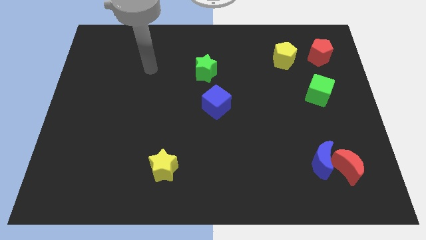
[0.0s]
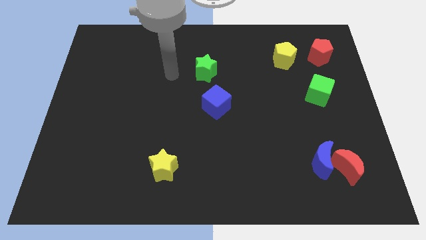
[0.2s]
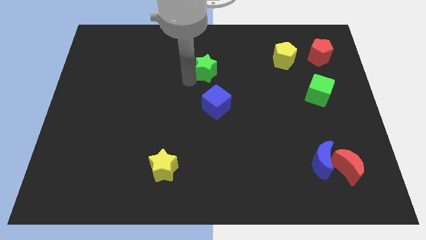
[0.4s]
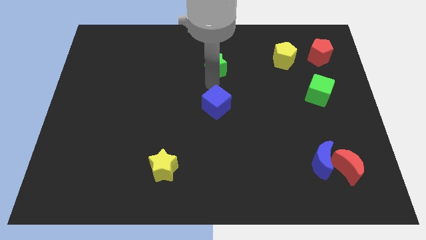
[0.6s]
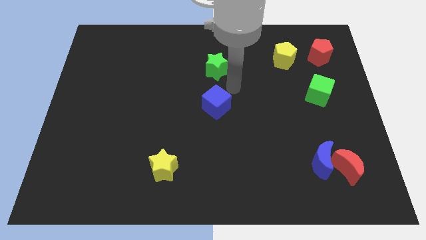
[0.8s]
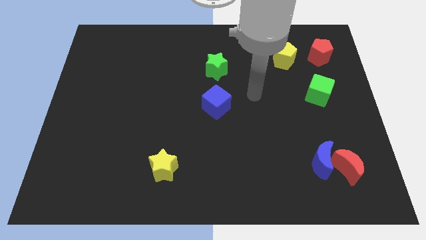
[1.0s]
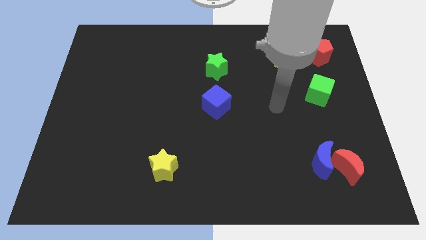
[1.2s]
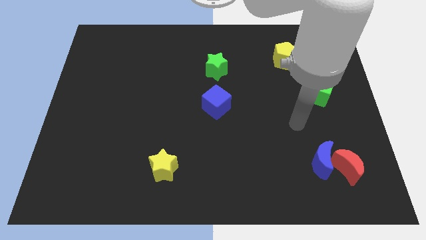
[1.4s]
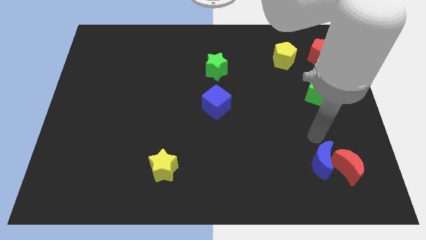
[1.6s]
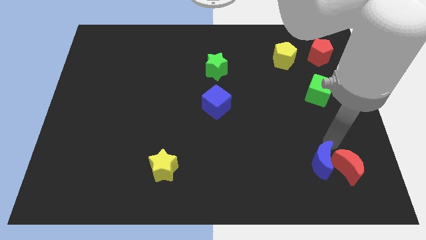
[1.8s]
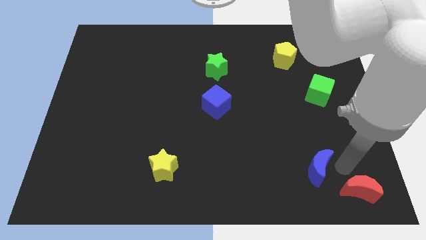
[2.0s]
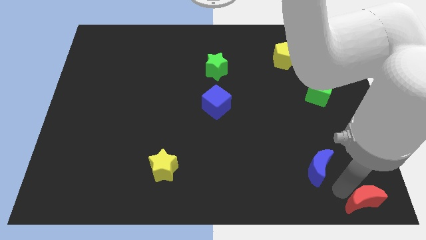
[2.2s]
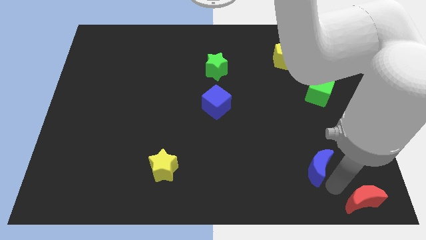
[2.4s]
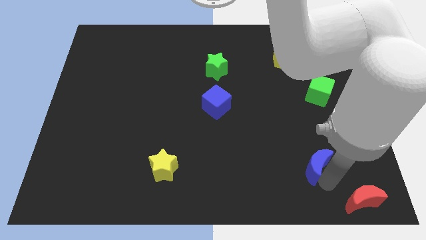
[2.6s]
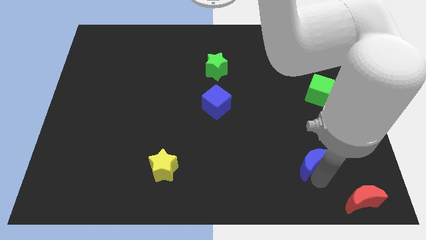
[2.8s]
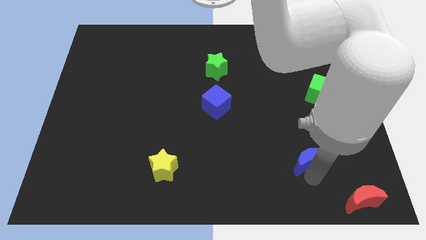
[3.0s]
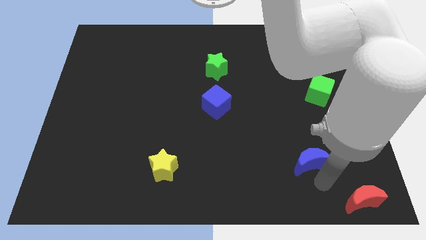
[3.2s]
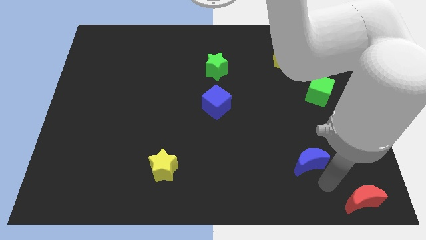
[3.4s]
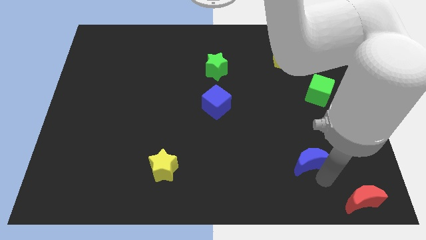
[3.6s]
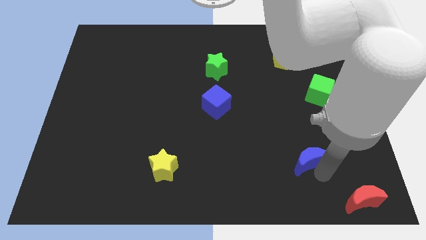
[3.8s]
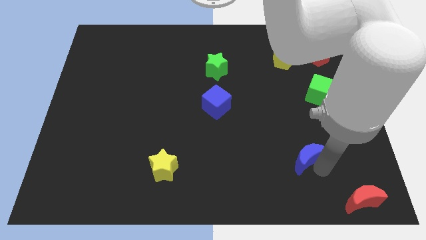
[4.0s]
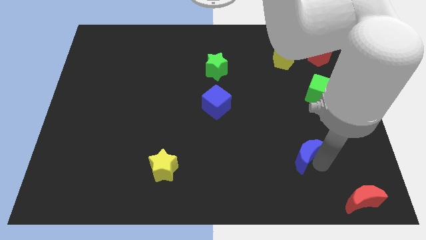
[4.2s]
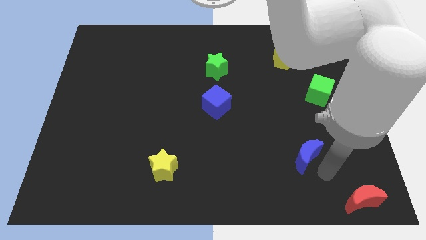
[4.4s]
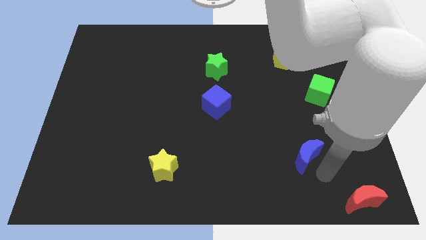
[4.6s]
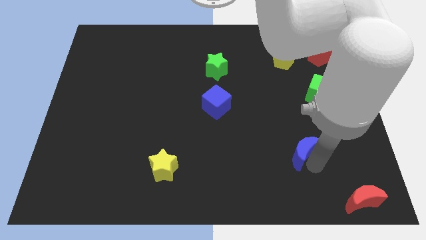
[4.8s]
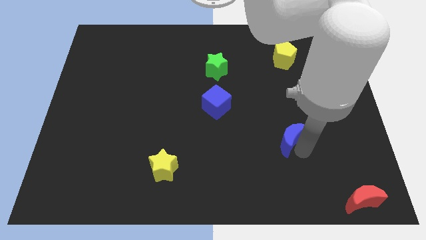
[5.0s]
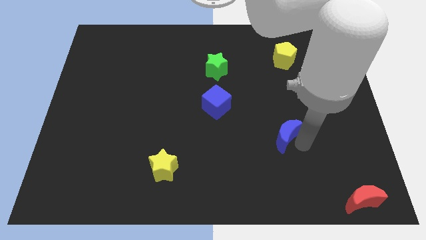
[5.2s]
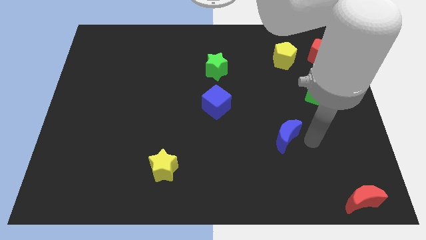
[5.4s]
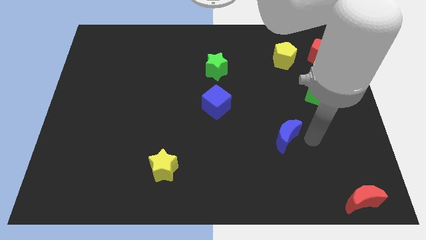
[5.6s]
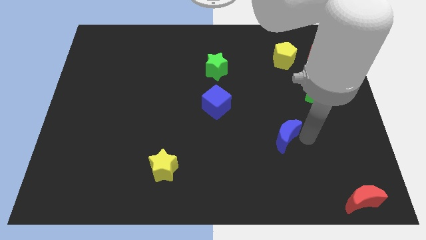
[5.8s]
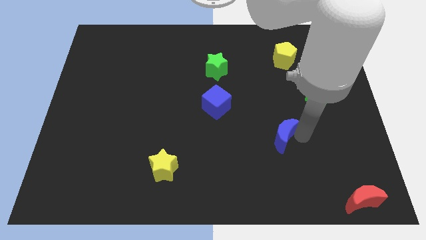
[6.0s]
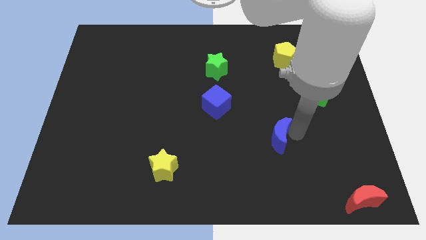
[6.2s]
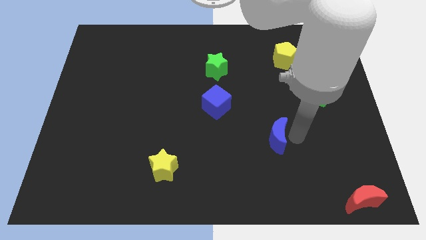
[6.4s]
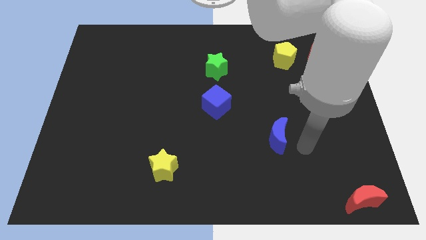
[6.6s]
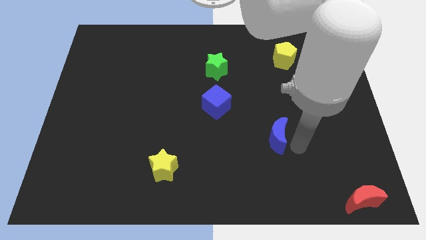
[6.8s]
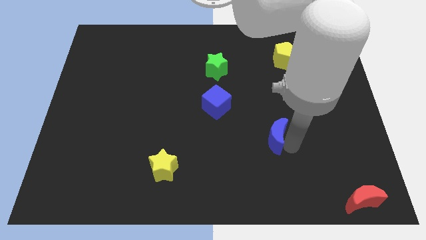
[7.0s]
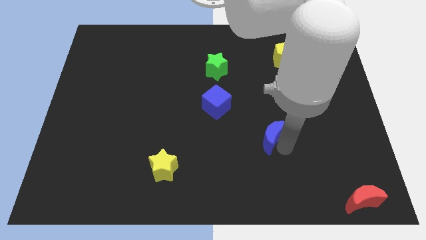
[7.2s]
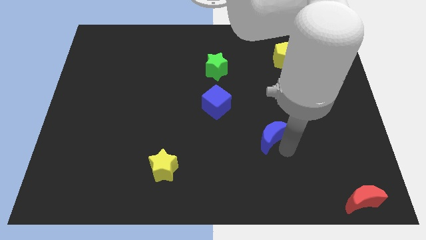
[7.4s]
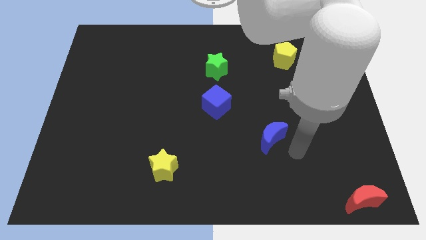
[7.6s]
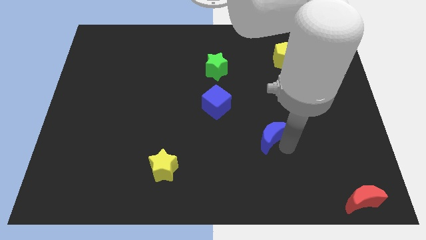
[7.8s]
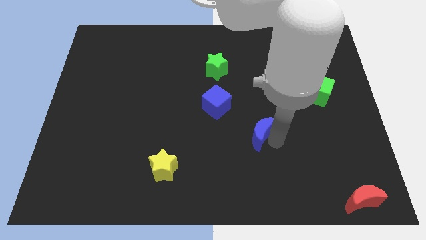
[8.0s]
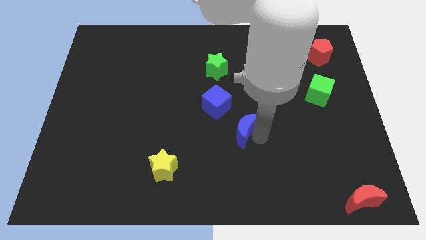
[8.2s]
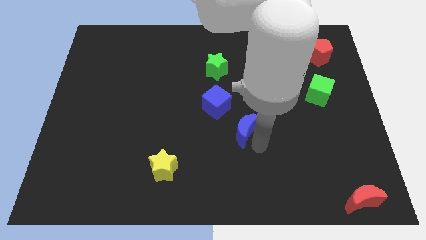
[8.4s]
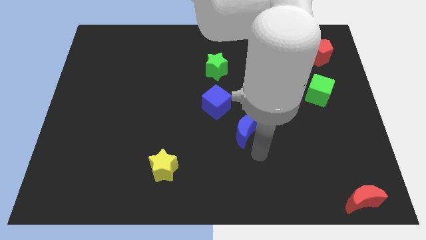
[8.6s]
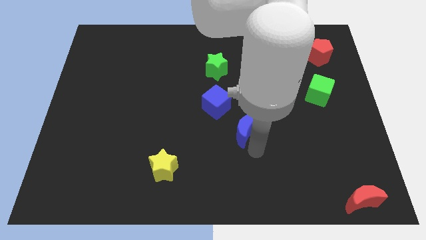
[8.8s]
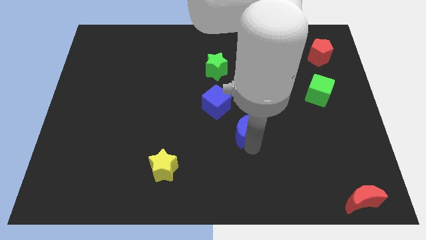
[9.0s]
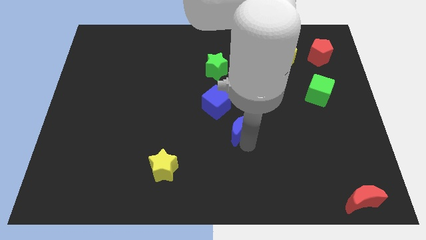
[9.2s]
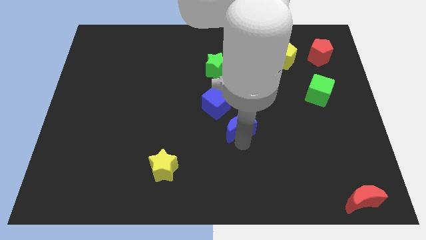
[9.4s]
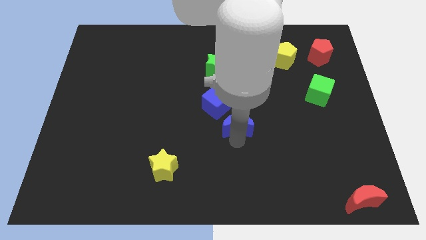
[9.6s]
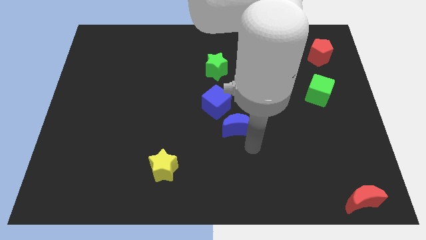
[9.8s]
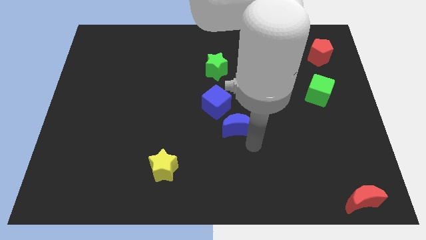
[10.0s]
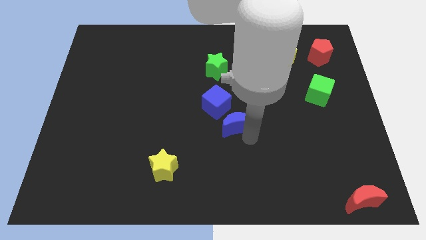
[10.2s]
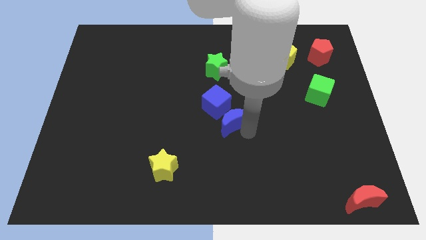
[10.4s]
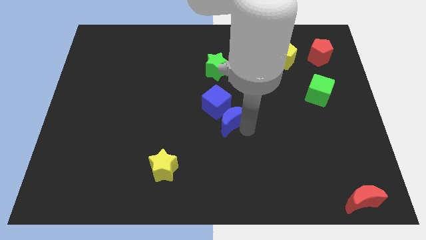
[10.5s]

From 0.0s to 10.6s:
move the blue moon close to the blue cube

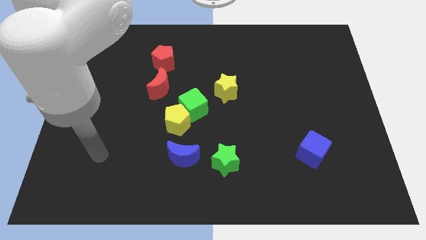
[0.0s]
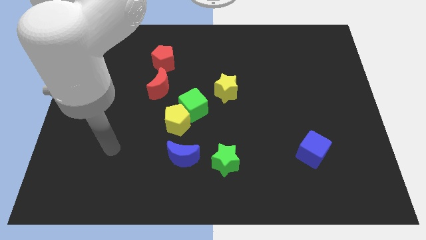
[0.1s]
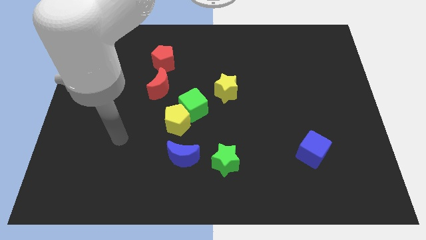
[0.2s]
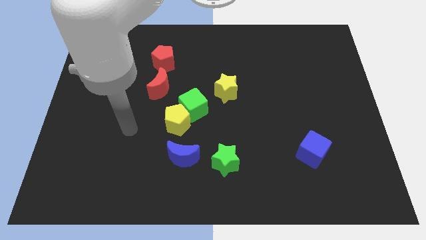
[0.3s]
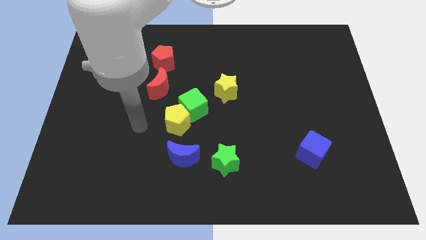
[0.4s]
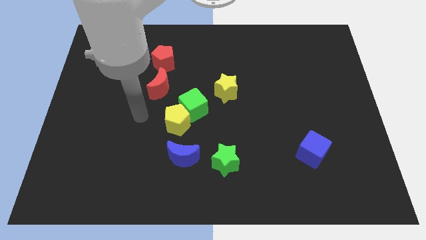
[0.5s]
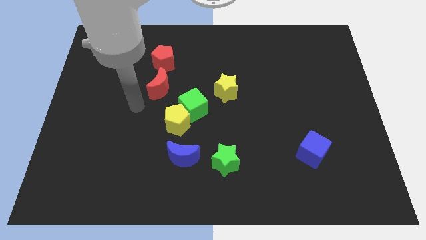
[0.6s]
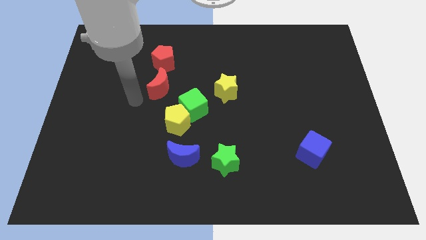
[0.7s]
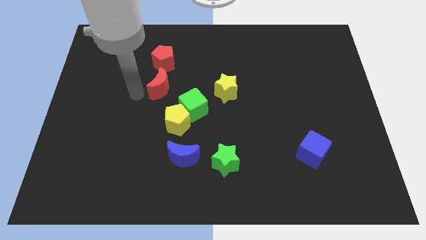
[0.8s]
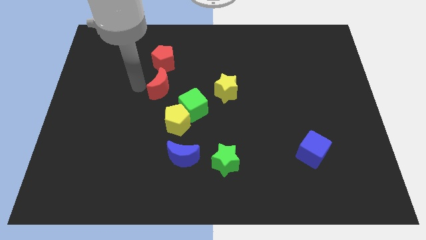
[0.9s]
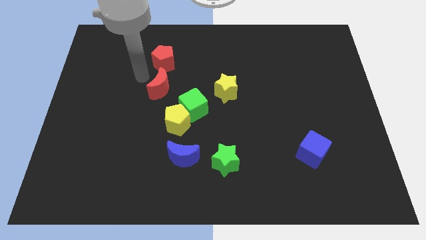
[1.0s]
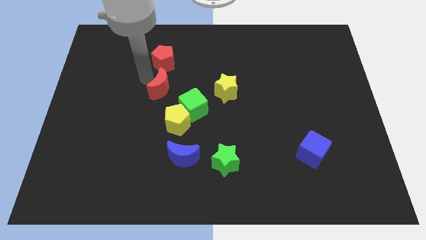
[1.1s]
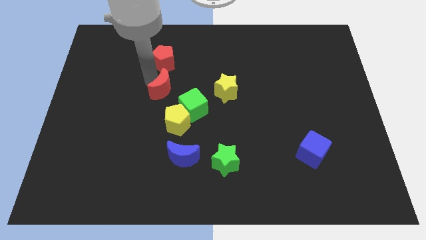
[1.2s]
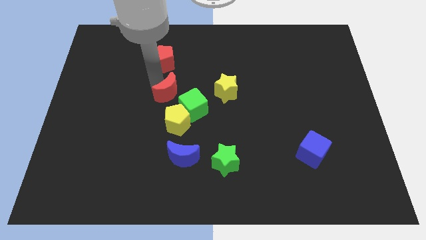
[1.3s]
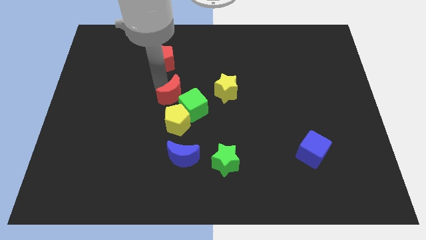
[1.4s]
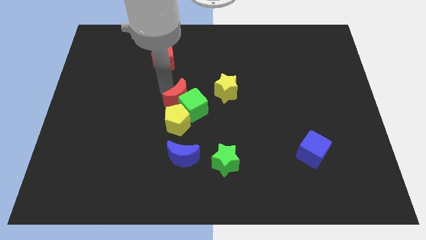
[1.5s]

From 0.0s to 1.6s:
push the red moon to the green cube

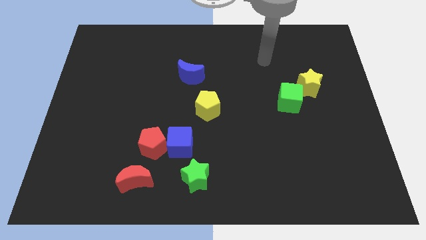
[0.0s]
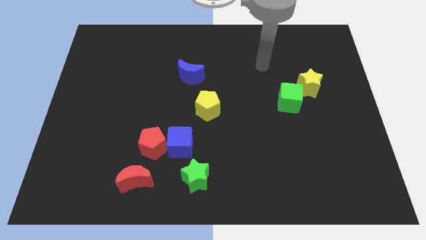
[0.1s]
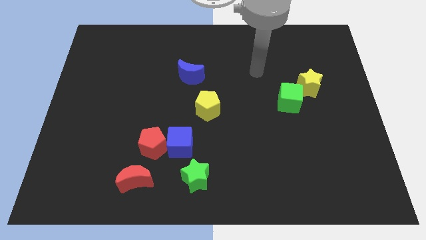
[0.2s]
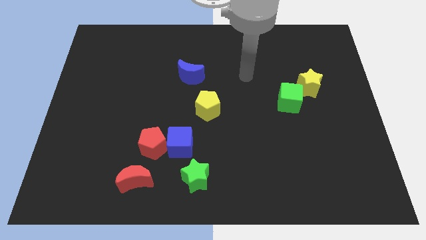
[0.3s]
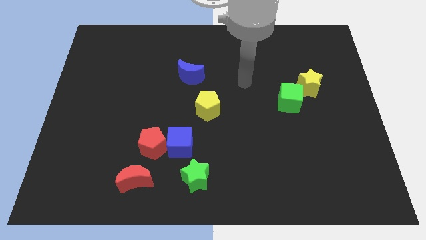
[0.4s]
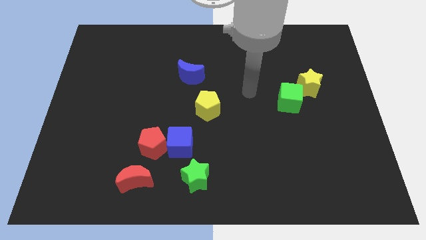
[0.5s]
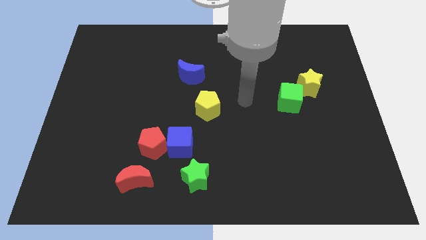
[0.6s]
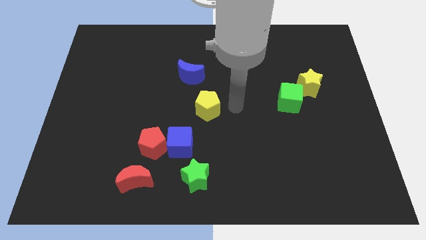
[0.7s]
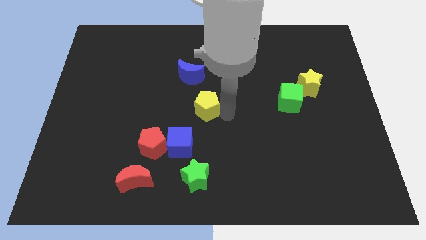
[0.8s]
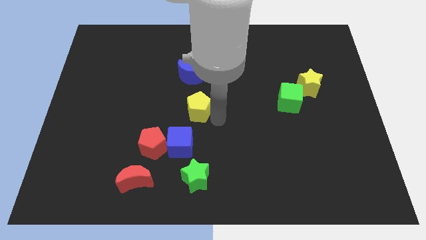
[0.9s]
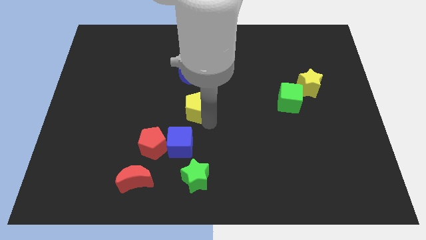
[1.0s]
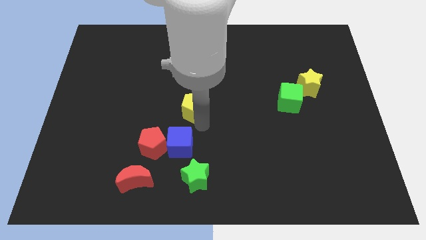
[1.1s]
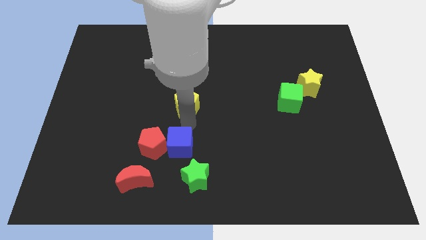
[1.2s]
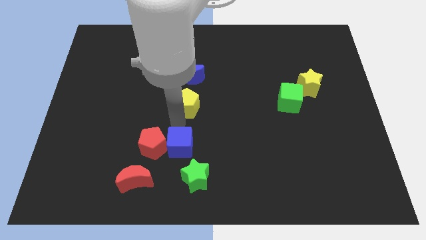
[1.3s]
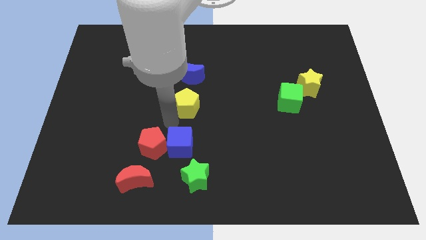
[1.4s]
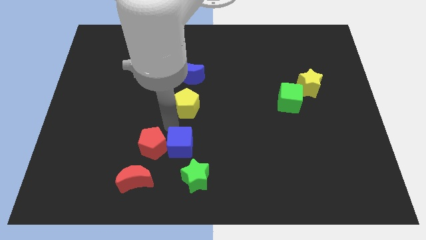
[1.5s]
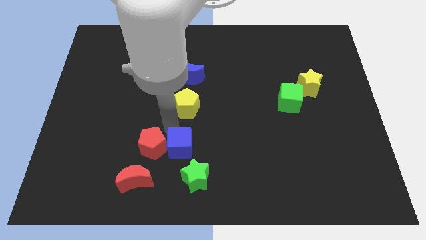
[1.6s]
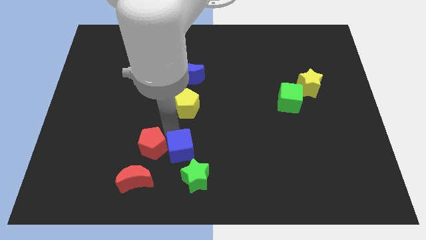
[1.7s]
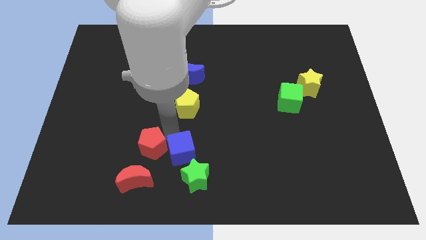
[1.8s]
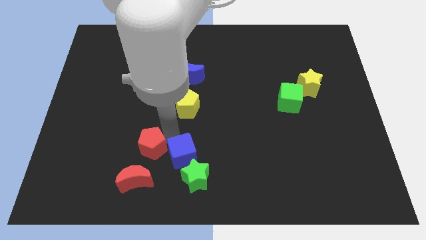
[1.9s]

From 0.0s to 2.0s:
move the blue cube close to the green star
